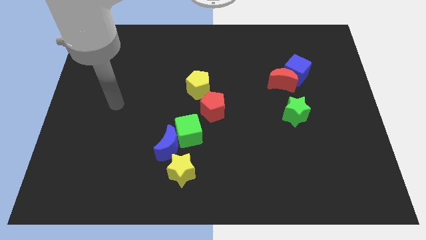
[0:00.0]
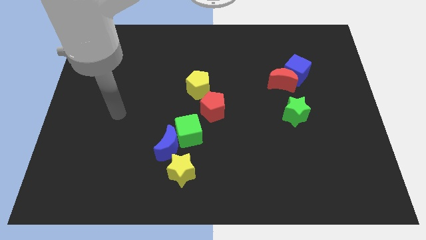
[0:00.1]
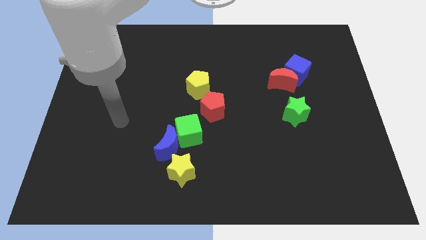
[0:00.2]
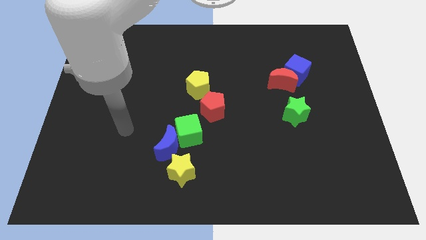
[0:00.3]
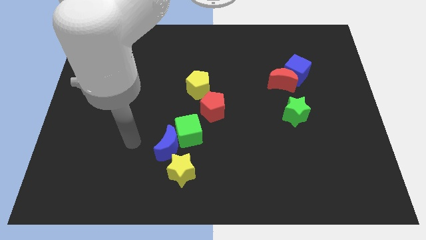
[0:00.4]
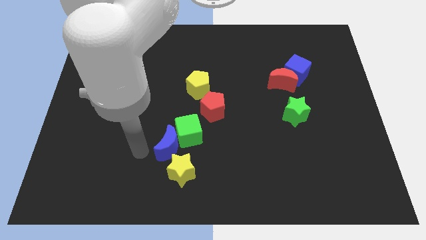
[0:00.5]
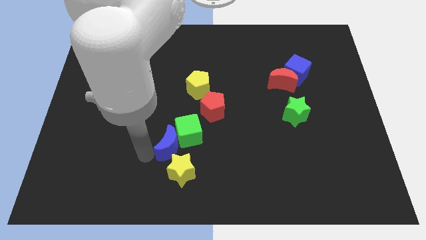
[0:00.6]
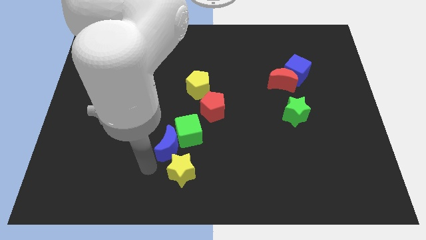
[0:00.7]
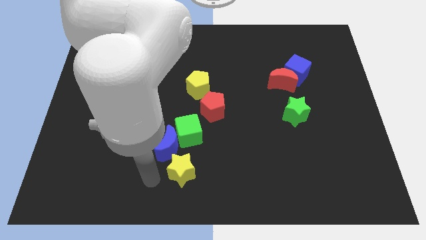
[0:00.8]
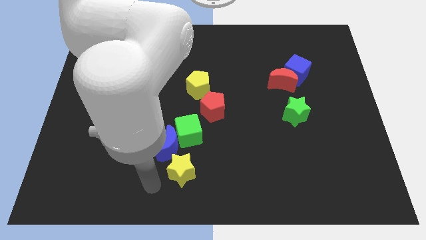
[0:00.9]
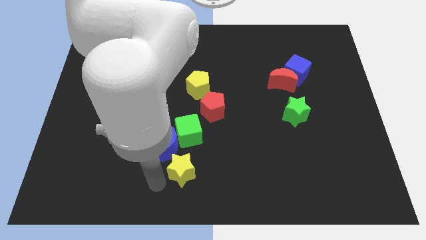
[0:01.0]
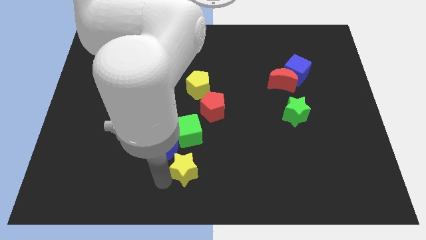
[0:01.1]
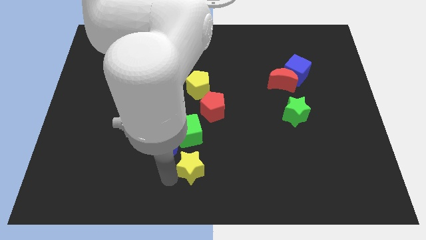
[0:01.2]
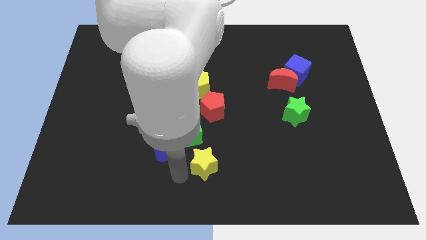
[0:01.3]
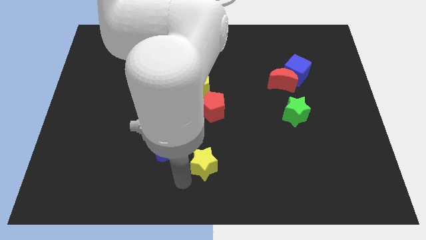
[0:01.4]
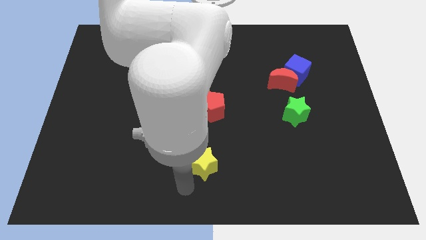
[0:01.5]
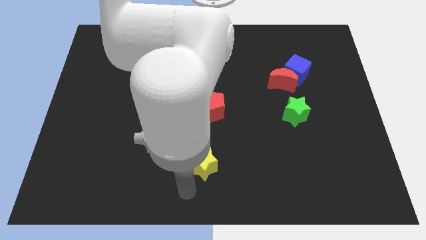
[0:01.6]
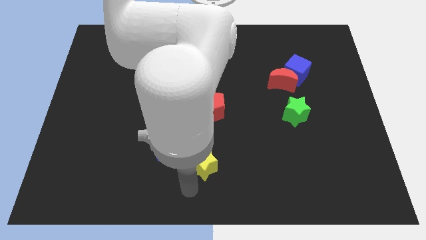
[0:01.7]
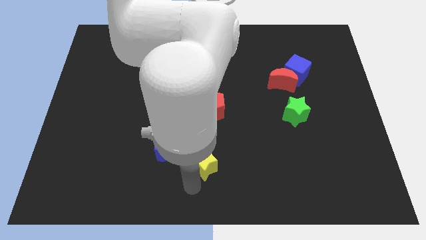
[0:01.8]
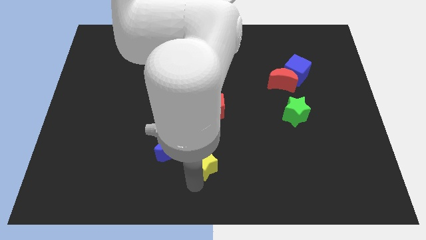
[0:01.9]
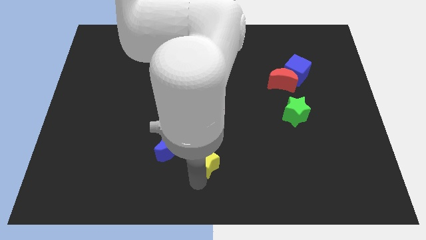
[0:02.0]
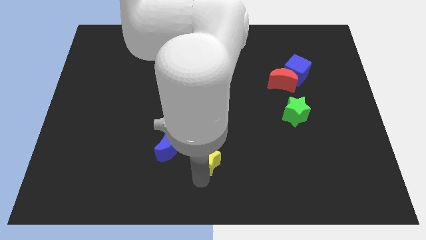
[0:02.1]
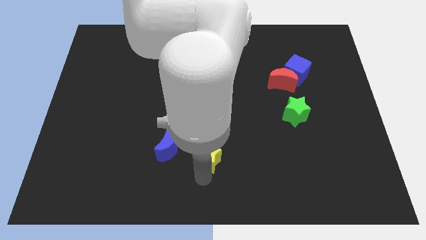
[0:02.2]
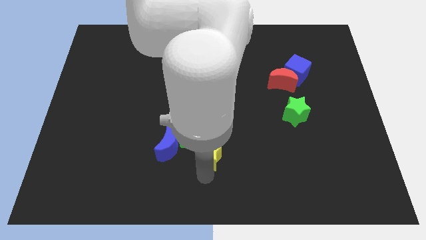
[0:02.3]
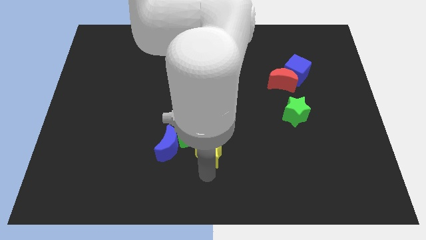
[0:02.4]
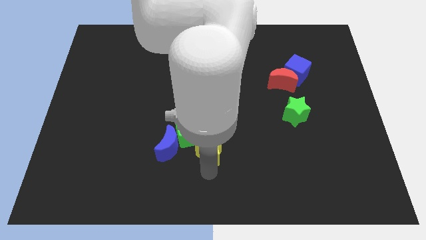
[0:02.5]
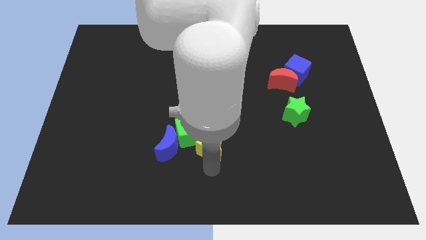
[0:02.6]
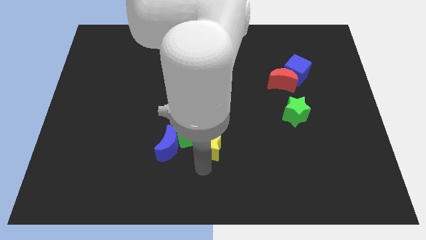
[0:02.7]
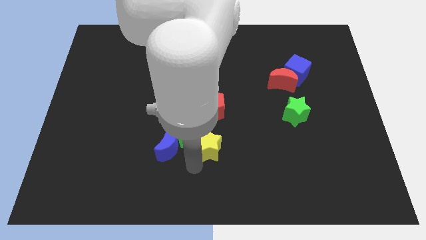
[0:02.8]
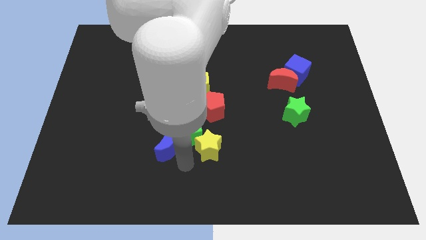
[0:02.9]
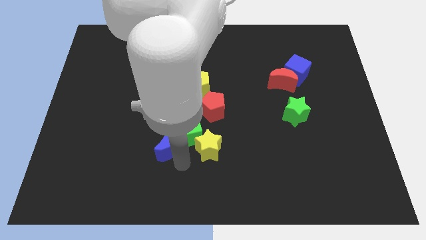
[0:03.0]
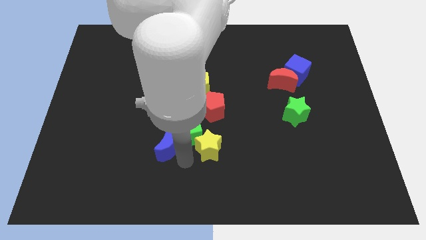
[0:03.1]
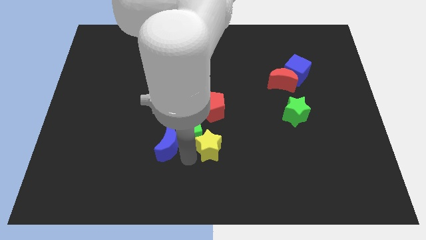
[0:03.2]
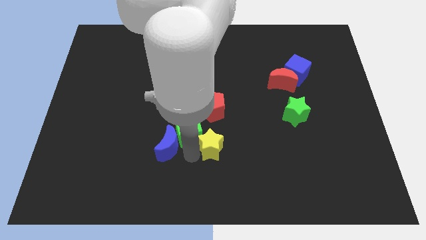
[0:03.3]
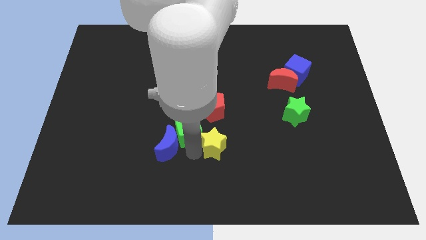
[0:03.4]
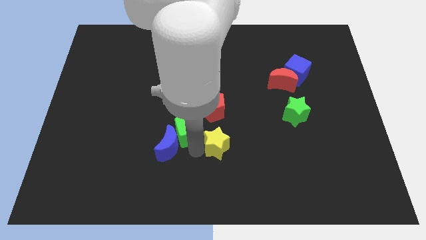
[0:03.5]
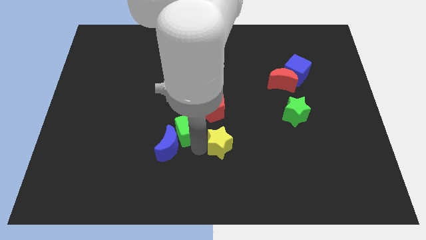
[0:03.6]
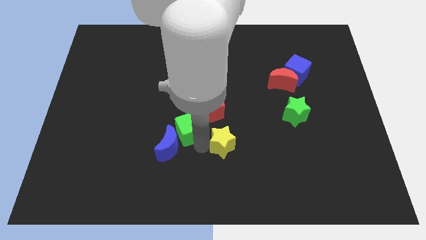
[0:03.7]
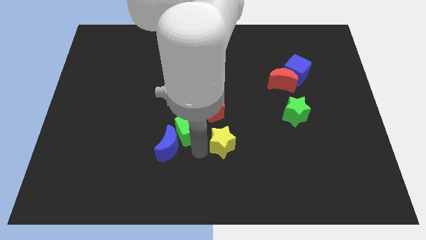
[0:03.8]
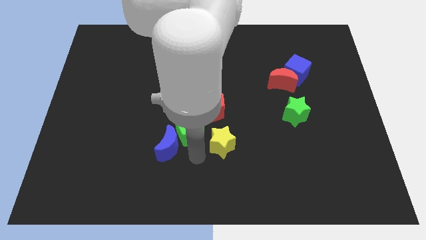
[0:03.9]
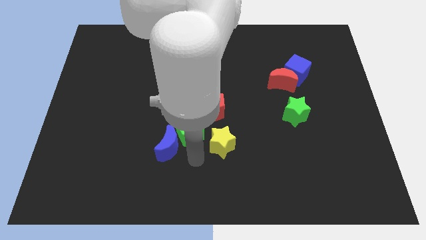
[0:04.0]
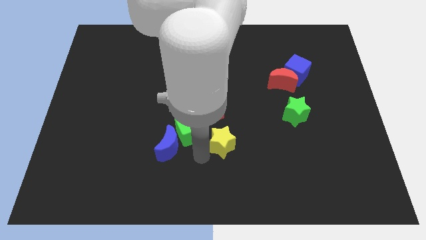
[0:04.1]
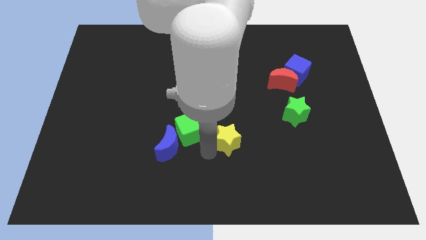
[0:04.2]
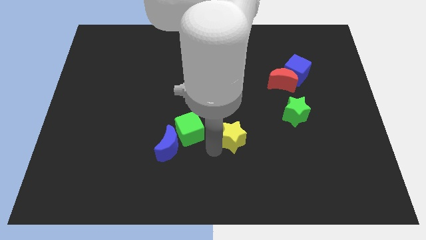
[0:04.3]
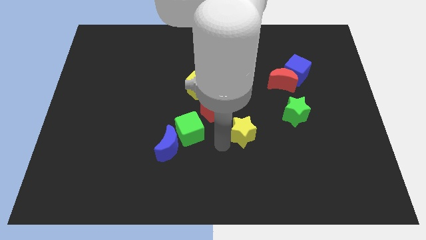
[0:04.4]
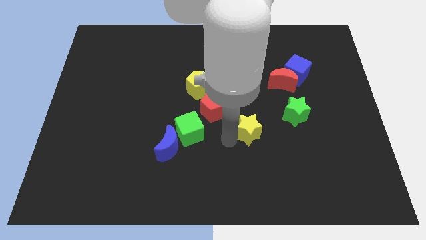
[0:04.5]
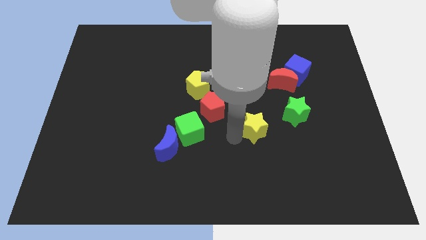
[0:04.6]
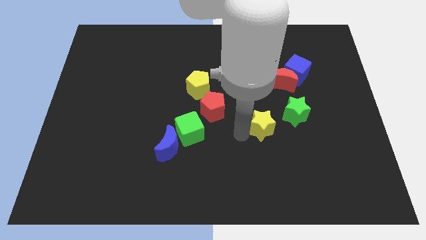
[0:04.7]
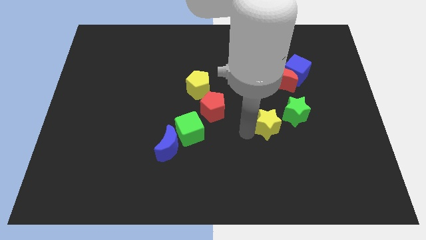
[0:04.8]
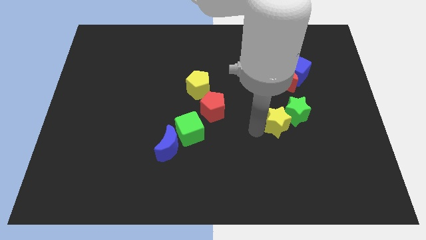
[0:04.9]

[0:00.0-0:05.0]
push the yellow star next to the green star

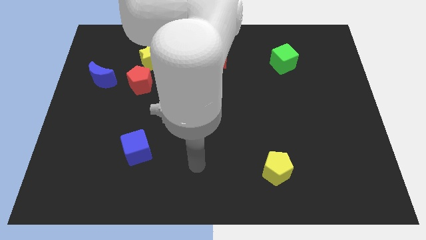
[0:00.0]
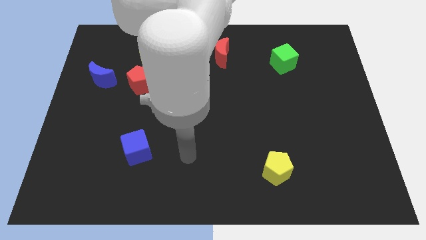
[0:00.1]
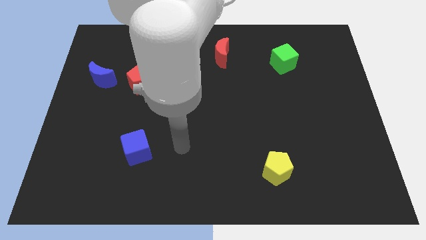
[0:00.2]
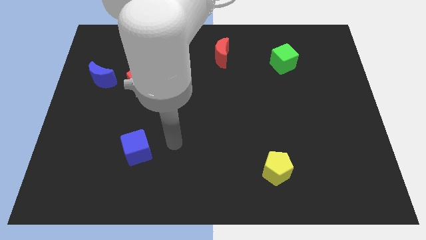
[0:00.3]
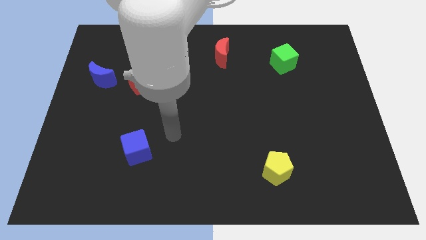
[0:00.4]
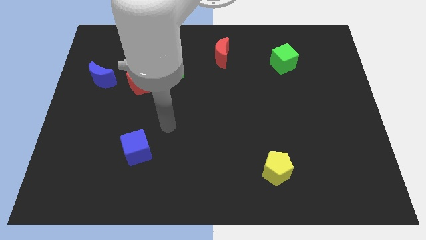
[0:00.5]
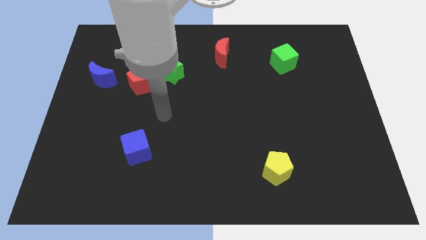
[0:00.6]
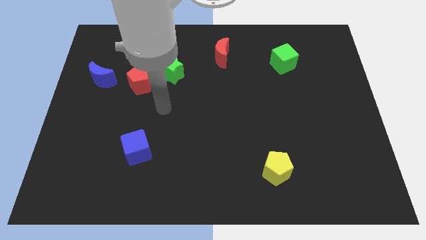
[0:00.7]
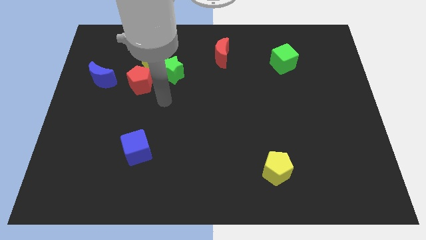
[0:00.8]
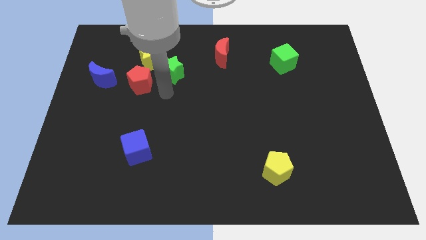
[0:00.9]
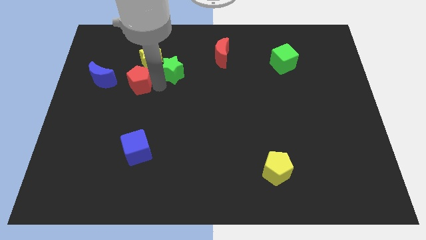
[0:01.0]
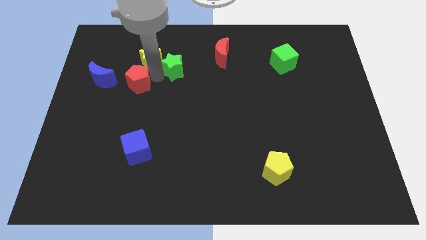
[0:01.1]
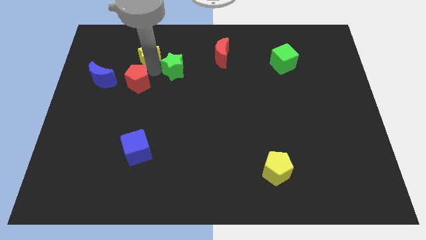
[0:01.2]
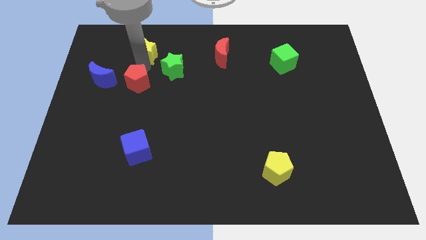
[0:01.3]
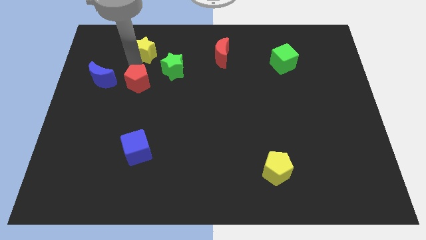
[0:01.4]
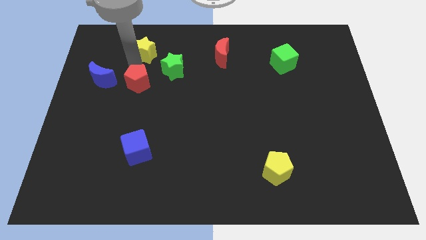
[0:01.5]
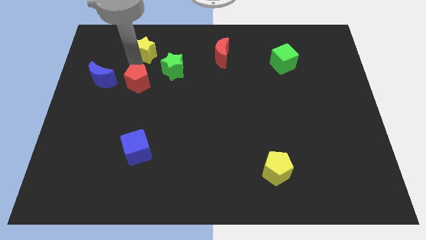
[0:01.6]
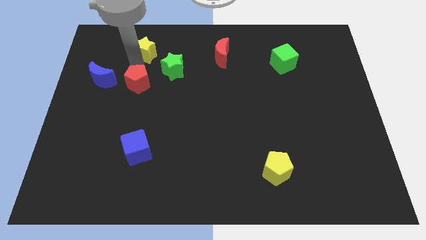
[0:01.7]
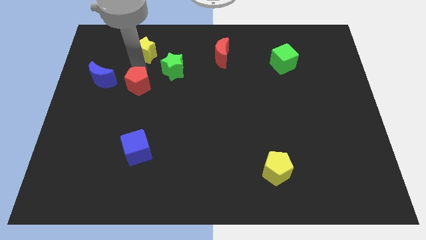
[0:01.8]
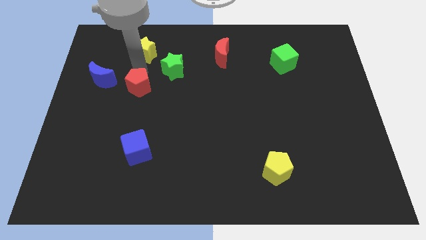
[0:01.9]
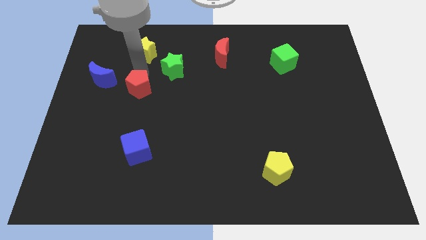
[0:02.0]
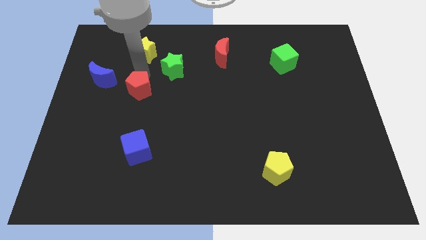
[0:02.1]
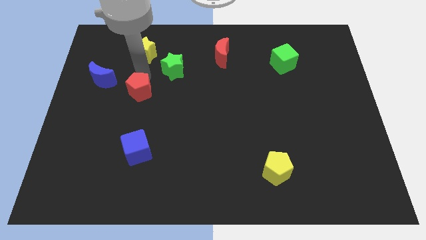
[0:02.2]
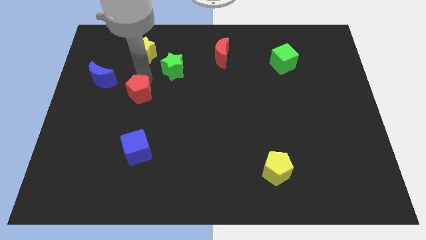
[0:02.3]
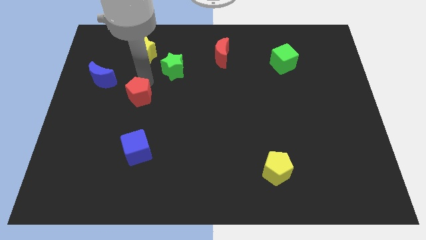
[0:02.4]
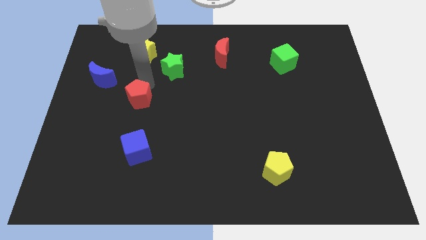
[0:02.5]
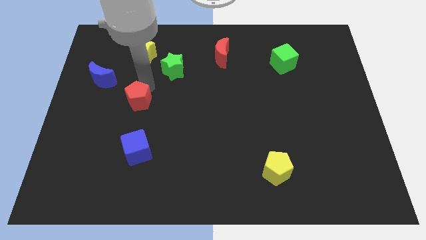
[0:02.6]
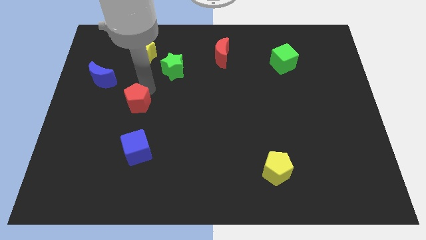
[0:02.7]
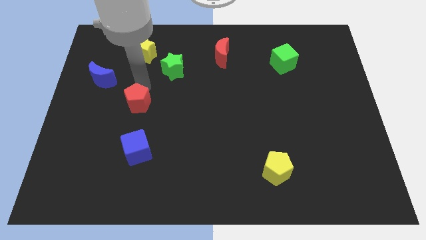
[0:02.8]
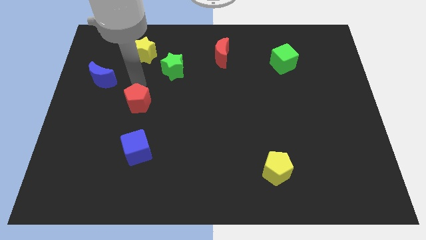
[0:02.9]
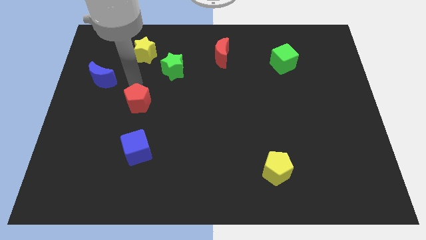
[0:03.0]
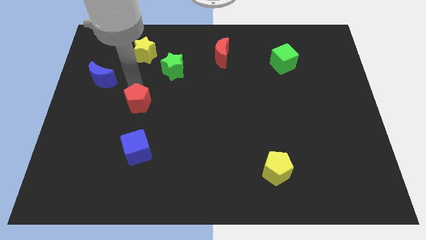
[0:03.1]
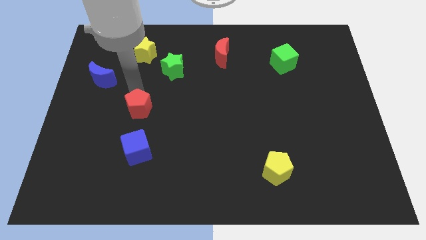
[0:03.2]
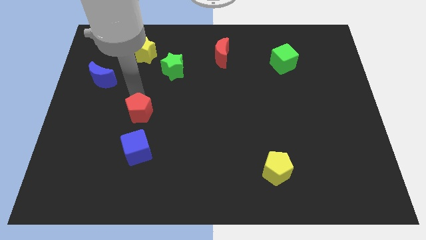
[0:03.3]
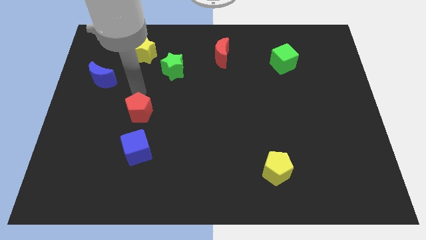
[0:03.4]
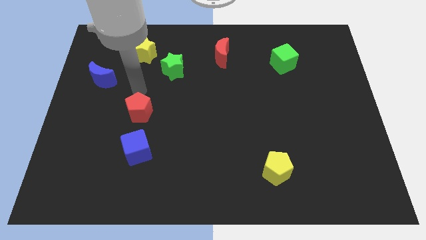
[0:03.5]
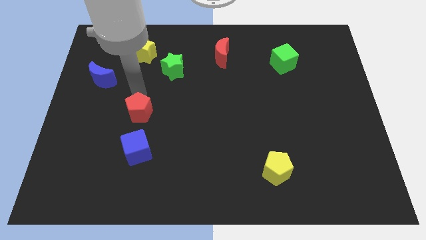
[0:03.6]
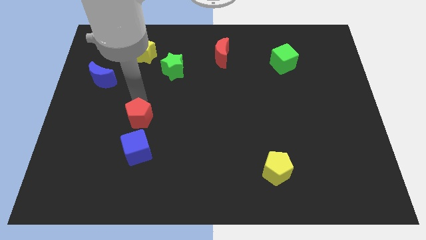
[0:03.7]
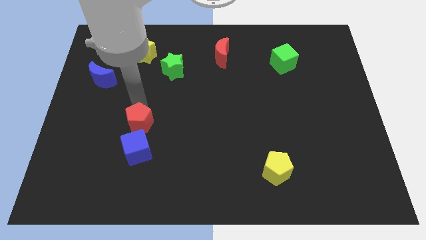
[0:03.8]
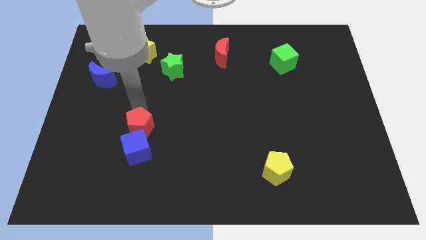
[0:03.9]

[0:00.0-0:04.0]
push the red pentagon to the blue cube
